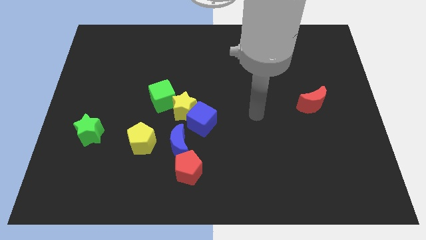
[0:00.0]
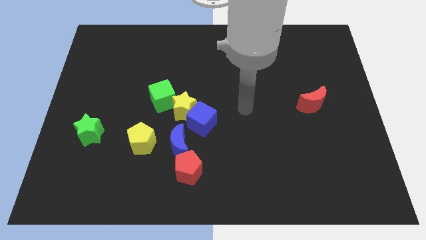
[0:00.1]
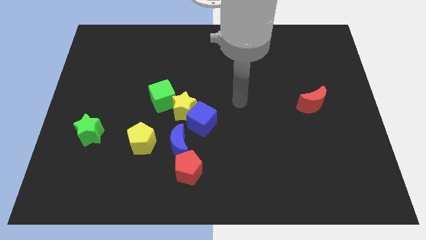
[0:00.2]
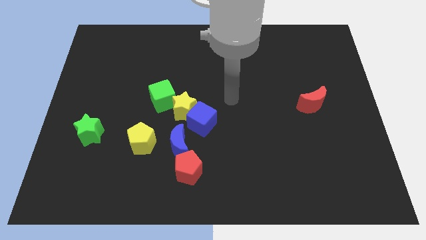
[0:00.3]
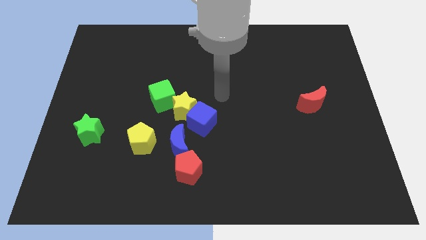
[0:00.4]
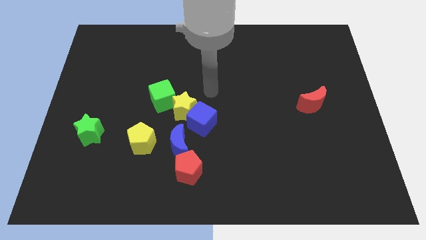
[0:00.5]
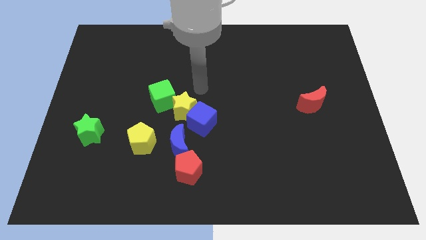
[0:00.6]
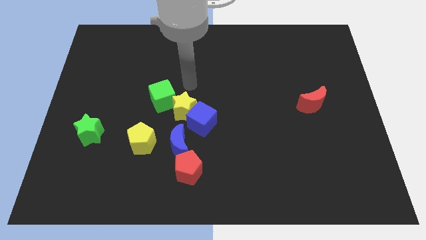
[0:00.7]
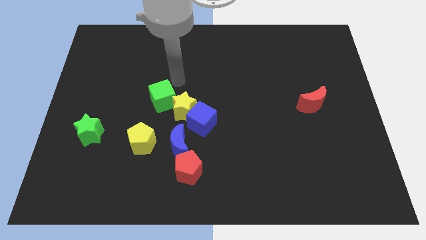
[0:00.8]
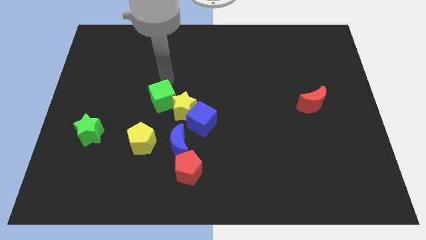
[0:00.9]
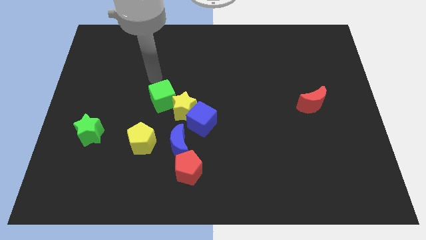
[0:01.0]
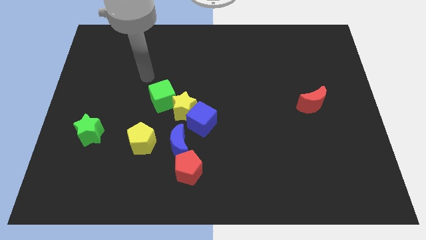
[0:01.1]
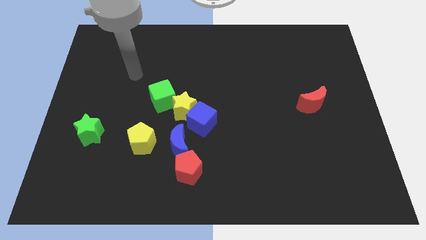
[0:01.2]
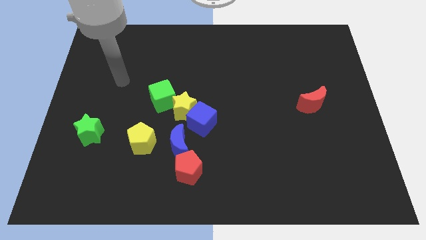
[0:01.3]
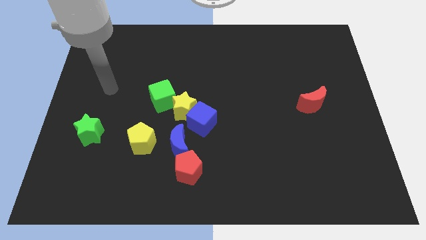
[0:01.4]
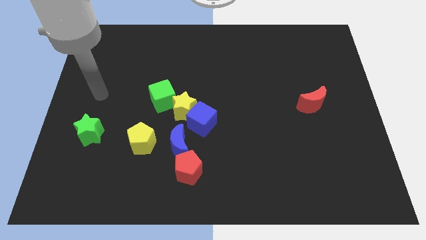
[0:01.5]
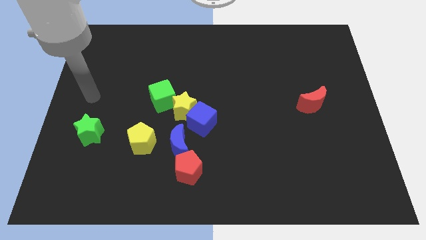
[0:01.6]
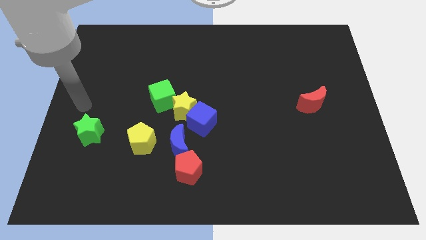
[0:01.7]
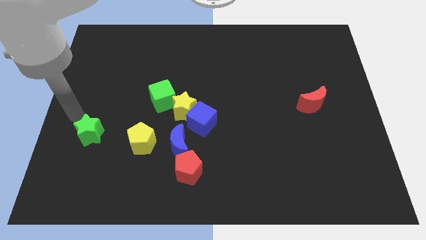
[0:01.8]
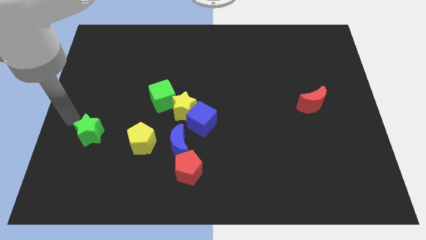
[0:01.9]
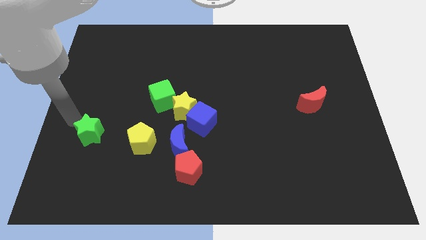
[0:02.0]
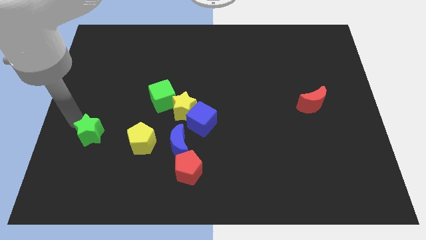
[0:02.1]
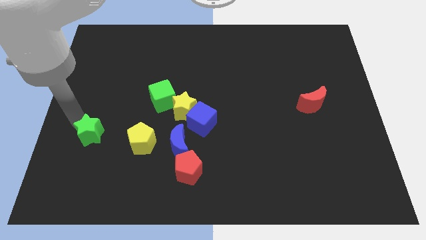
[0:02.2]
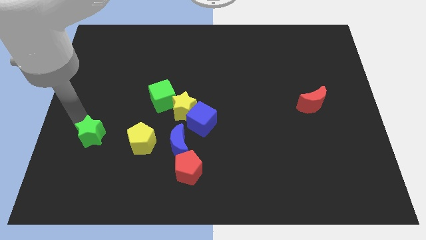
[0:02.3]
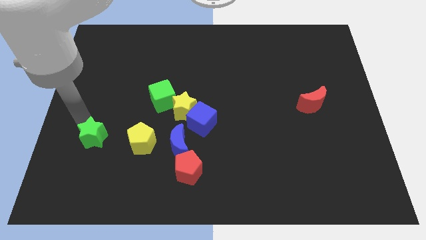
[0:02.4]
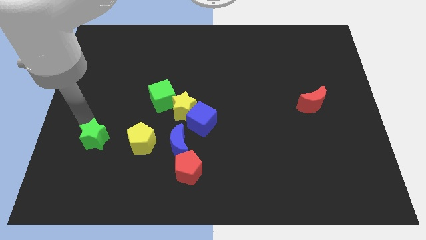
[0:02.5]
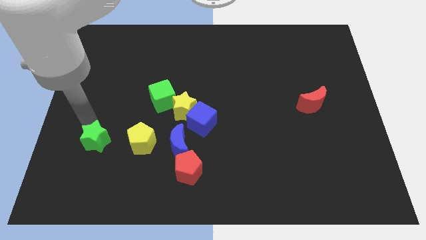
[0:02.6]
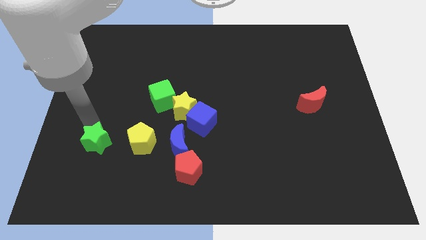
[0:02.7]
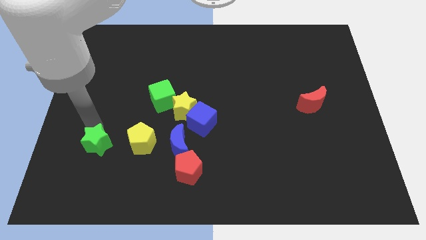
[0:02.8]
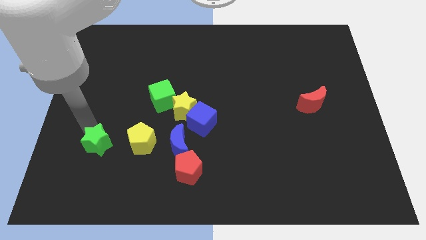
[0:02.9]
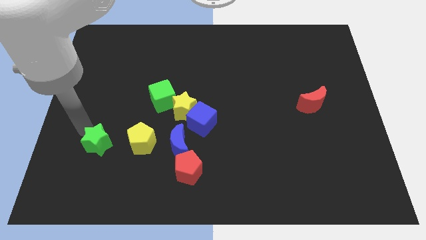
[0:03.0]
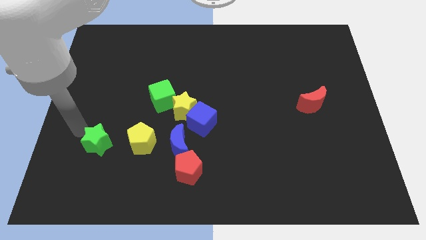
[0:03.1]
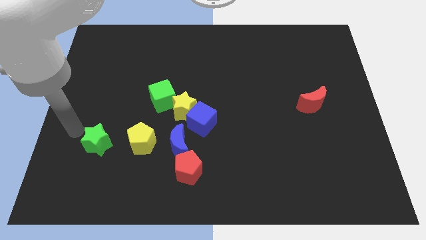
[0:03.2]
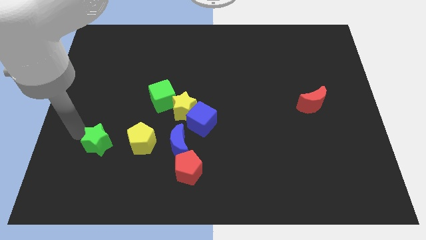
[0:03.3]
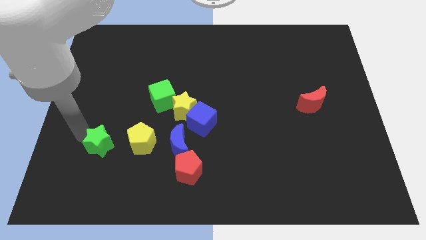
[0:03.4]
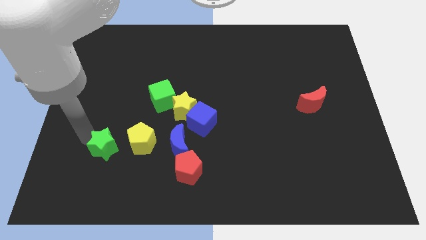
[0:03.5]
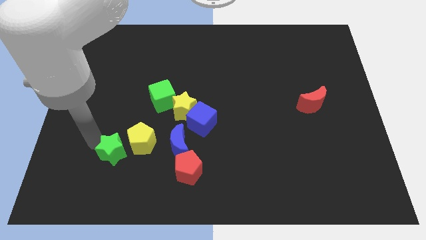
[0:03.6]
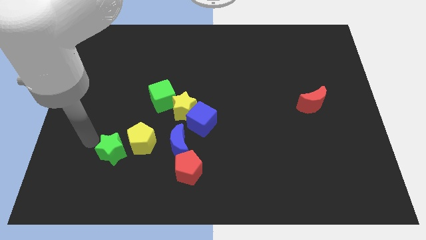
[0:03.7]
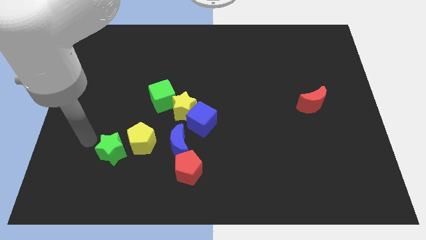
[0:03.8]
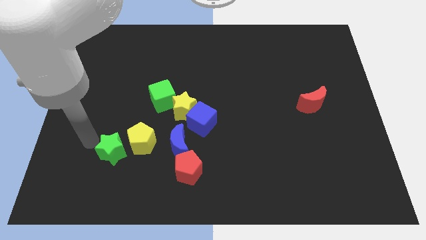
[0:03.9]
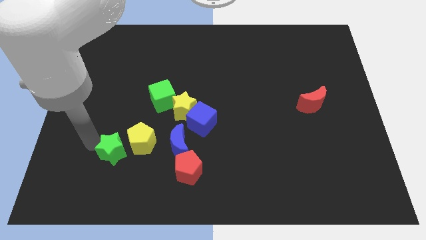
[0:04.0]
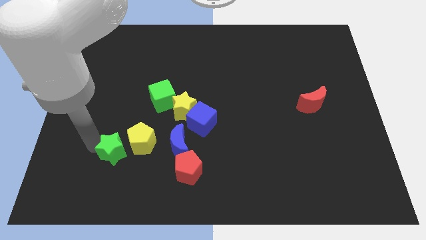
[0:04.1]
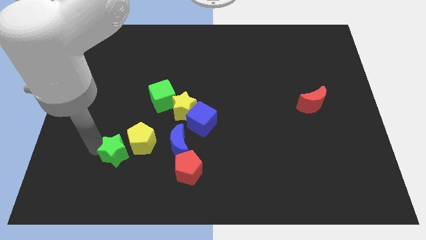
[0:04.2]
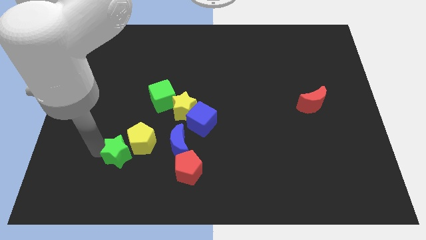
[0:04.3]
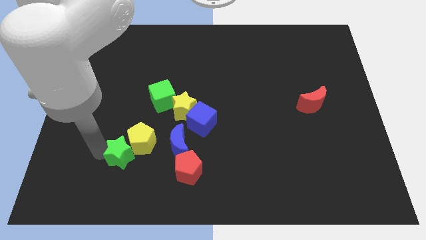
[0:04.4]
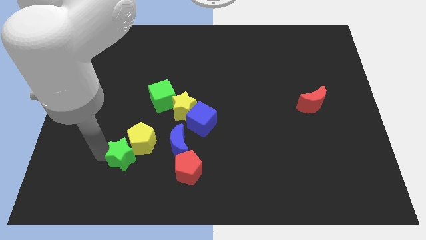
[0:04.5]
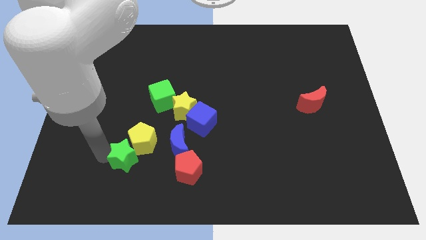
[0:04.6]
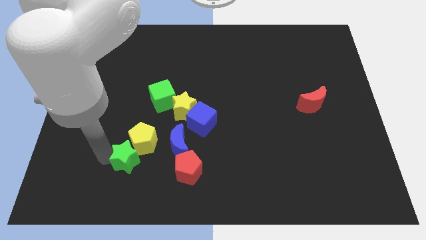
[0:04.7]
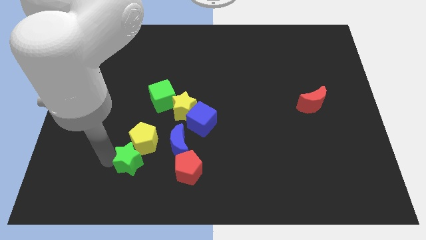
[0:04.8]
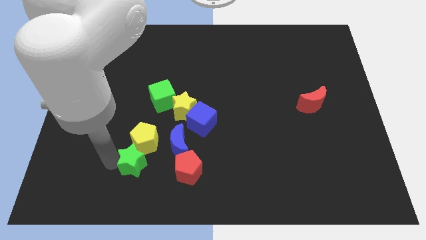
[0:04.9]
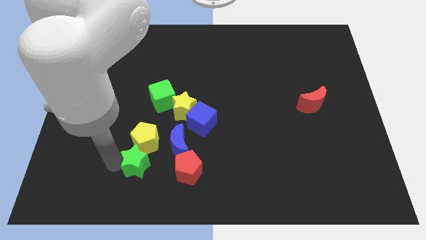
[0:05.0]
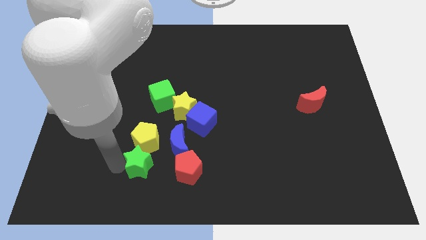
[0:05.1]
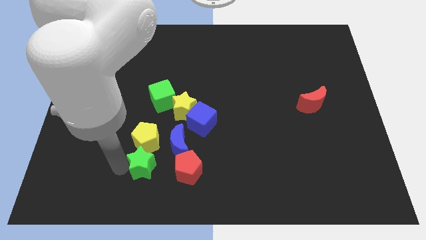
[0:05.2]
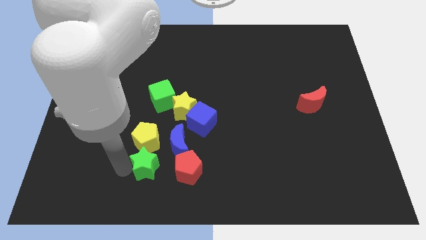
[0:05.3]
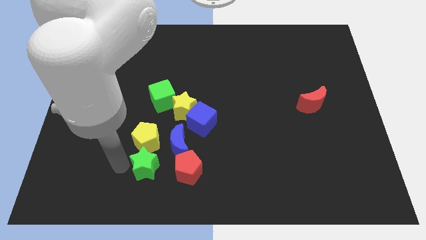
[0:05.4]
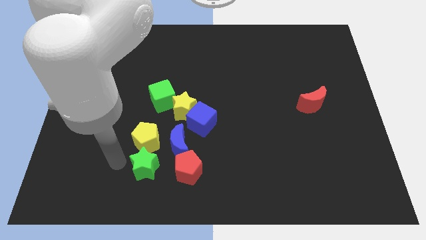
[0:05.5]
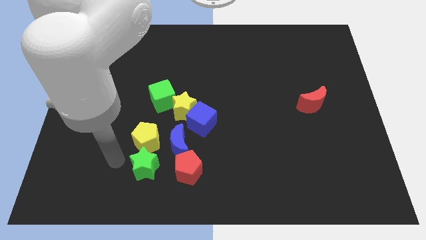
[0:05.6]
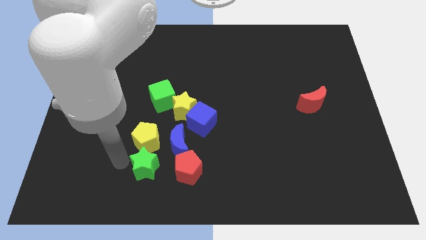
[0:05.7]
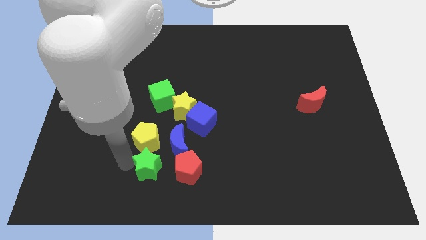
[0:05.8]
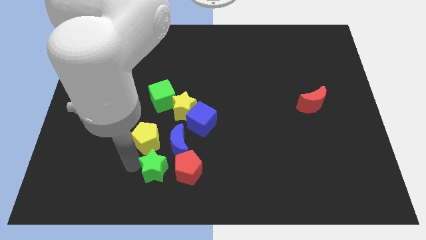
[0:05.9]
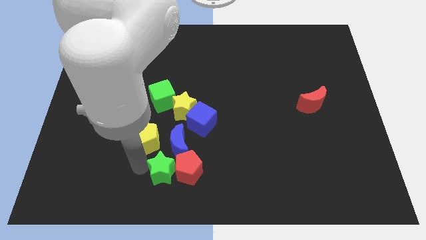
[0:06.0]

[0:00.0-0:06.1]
push the green star close to the red pentagon

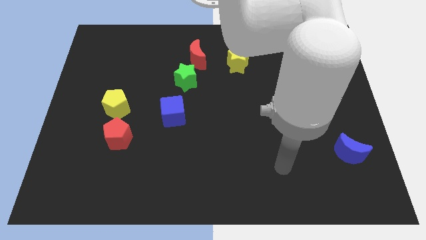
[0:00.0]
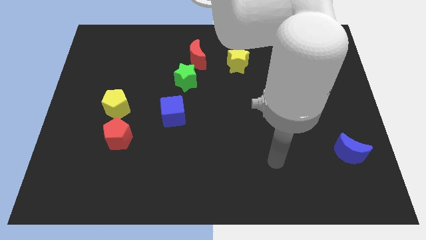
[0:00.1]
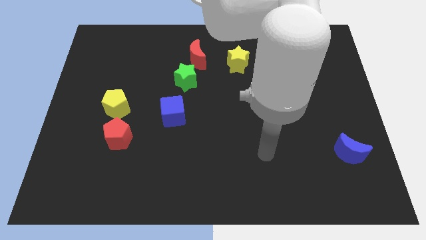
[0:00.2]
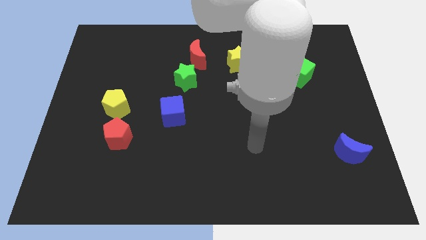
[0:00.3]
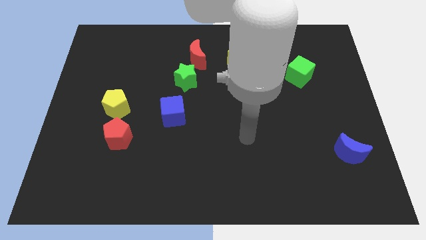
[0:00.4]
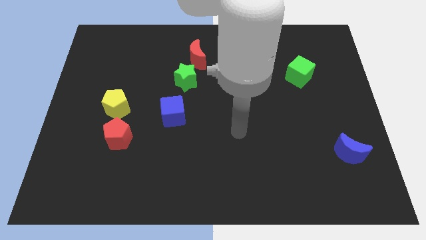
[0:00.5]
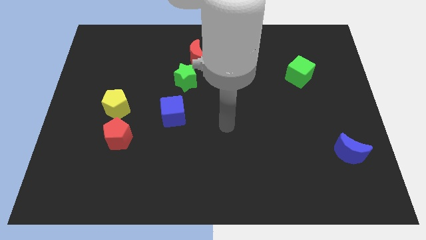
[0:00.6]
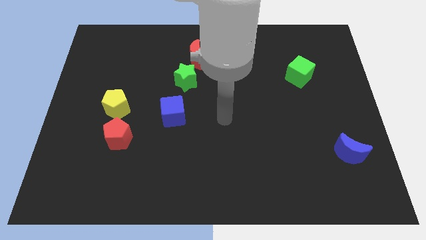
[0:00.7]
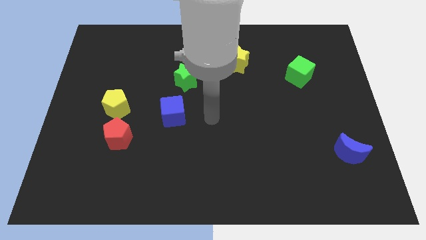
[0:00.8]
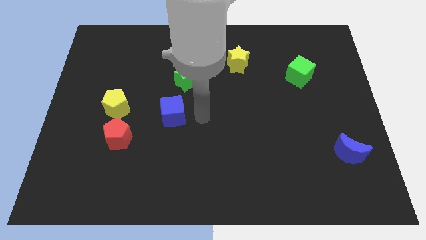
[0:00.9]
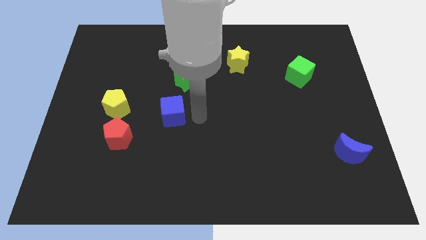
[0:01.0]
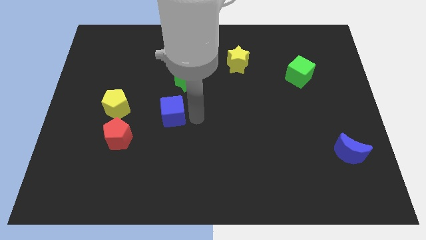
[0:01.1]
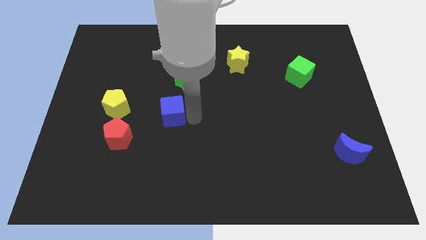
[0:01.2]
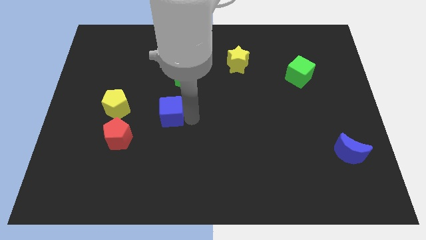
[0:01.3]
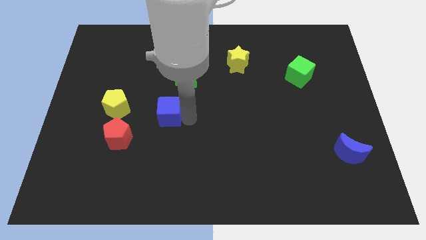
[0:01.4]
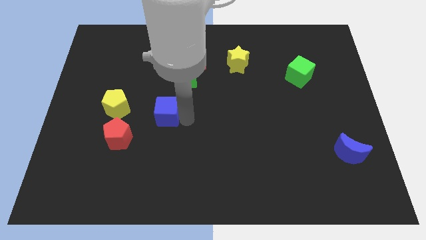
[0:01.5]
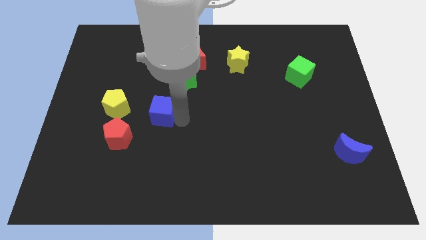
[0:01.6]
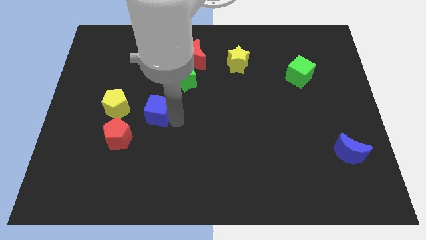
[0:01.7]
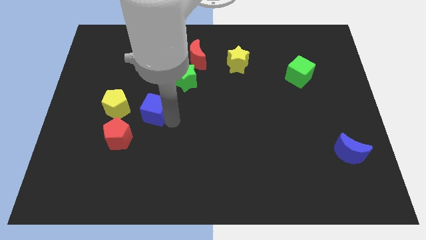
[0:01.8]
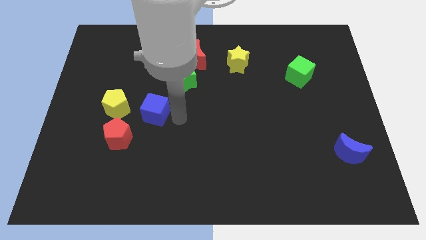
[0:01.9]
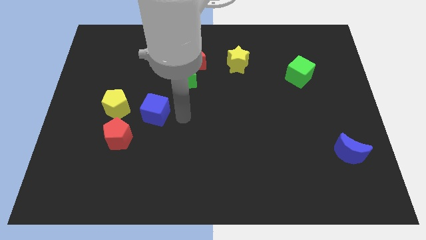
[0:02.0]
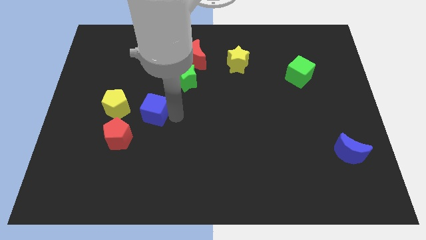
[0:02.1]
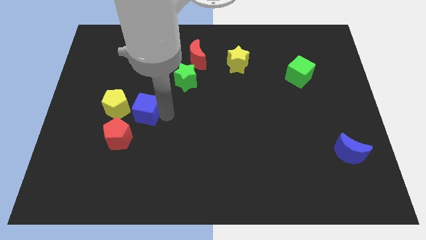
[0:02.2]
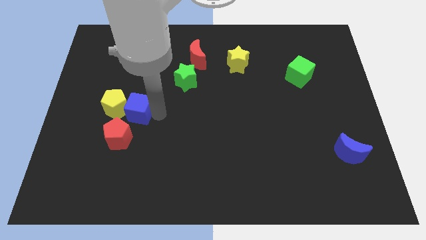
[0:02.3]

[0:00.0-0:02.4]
slide the blue cube next to the yellow pentagon
